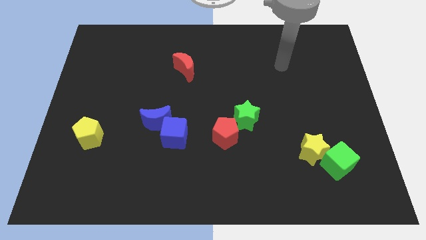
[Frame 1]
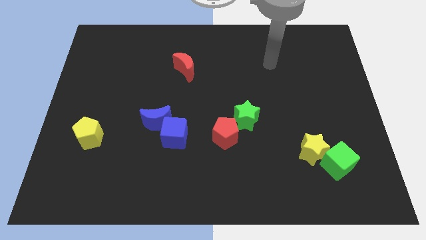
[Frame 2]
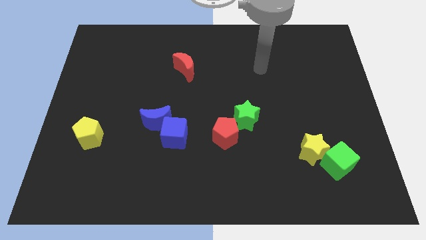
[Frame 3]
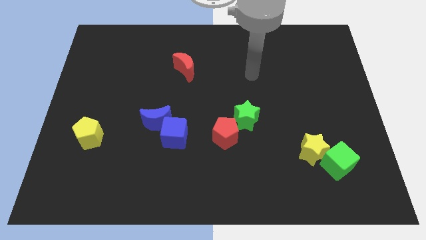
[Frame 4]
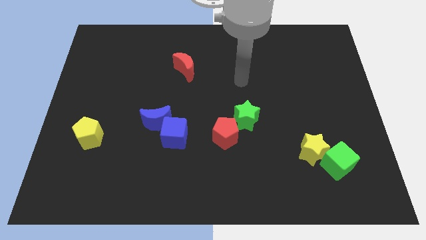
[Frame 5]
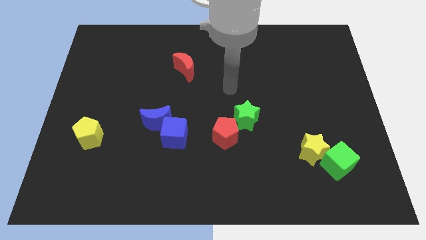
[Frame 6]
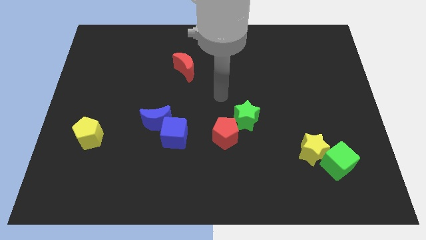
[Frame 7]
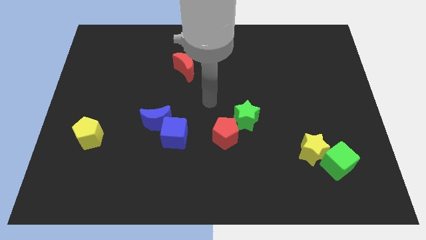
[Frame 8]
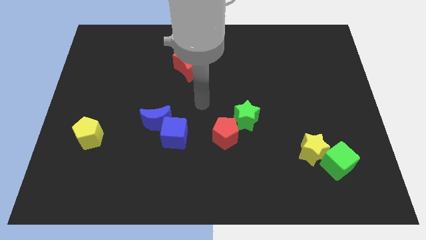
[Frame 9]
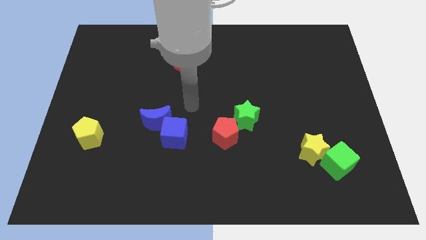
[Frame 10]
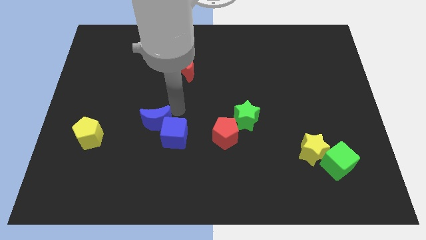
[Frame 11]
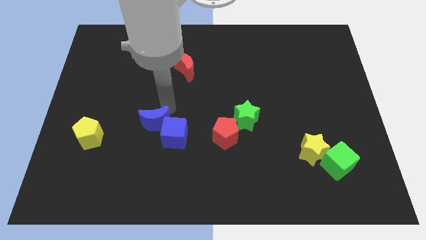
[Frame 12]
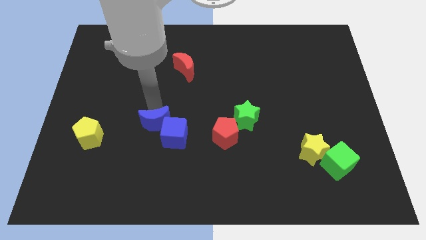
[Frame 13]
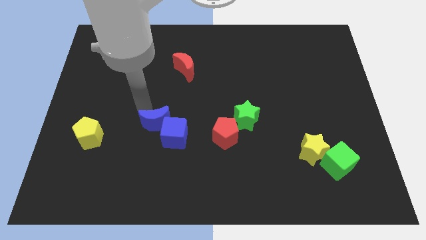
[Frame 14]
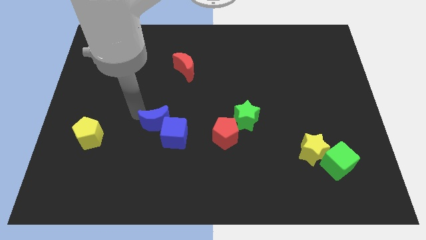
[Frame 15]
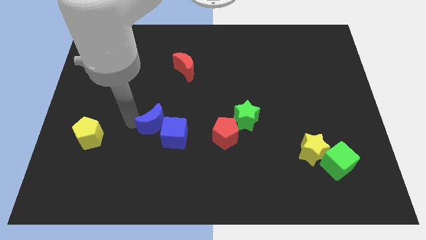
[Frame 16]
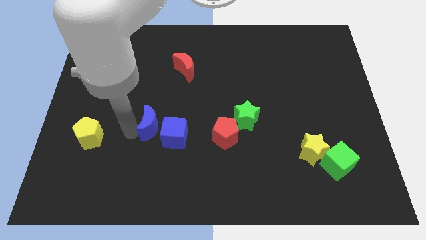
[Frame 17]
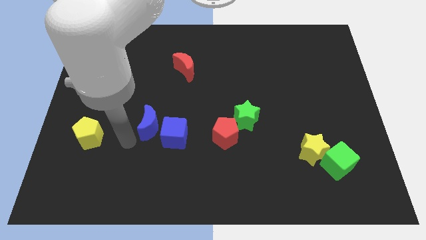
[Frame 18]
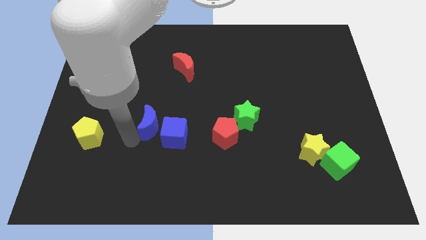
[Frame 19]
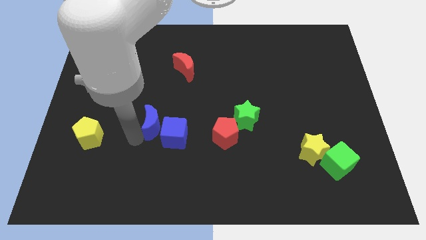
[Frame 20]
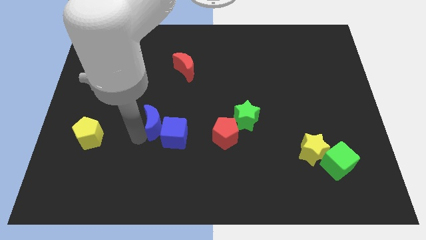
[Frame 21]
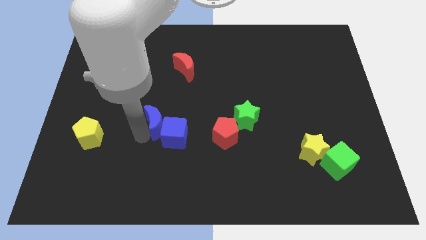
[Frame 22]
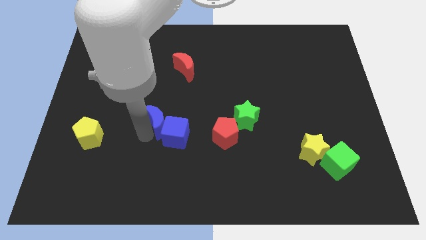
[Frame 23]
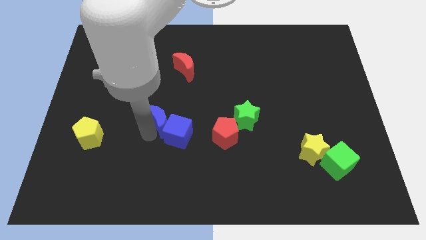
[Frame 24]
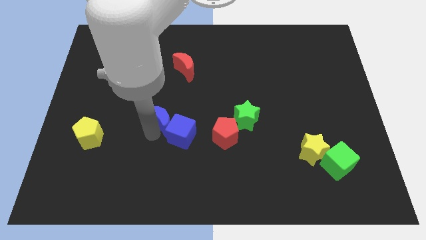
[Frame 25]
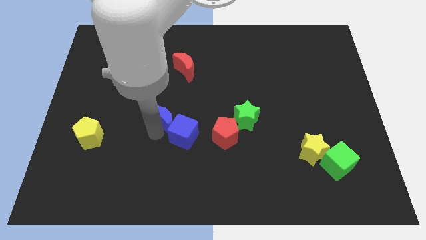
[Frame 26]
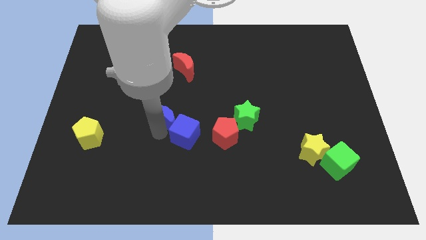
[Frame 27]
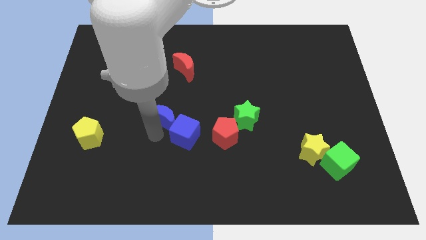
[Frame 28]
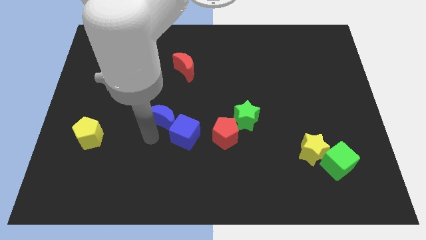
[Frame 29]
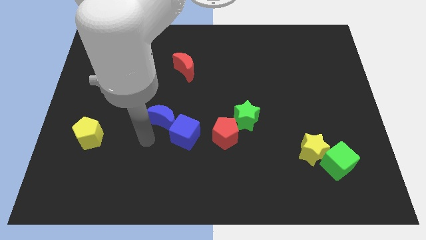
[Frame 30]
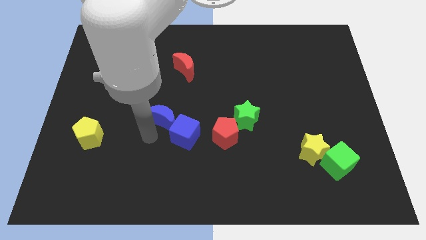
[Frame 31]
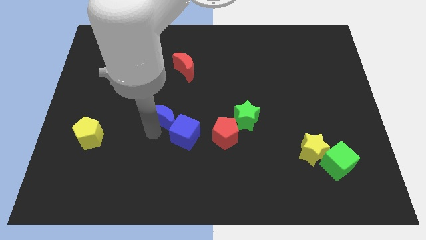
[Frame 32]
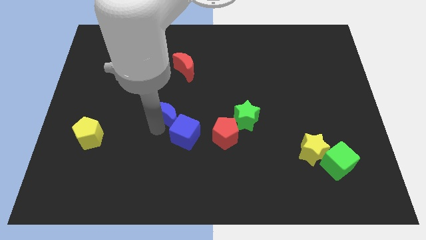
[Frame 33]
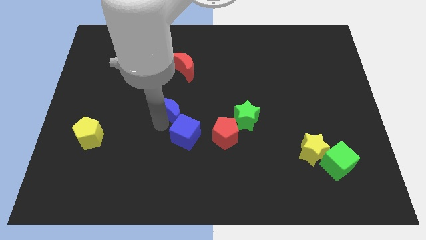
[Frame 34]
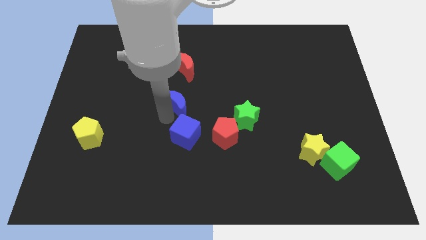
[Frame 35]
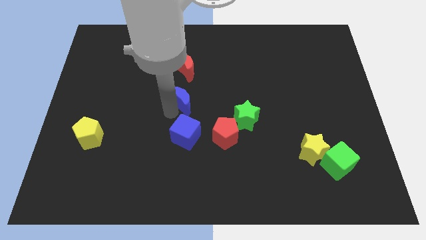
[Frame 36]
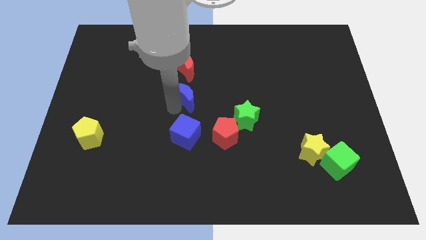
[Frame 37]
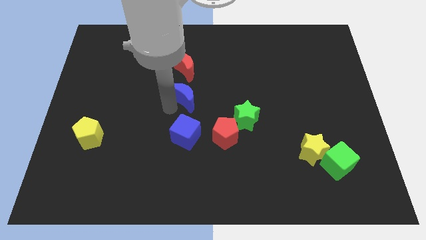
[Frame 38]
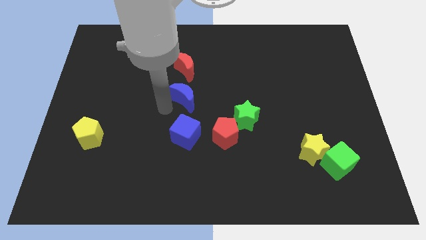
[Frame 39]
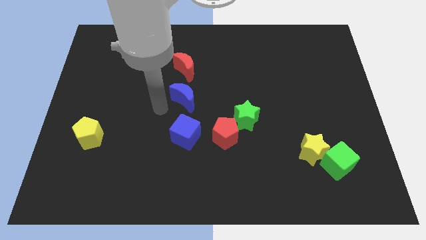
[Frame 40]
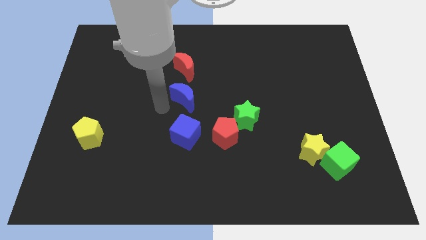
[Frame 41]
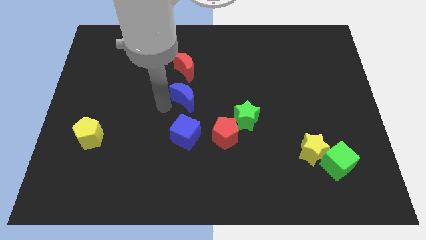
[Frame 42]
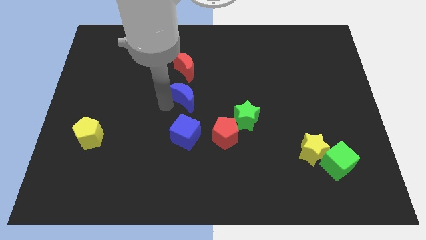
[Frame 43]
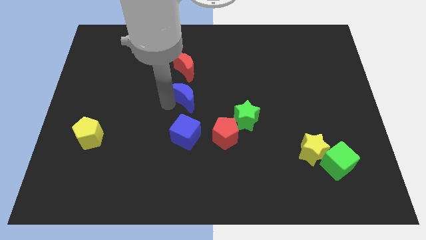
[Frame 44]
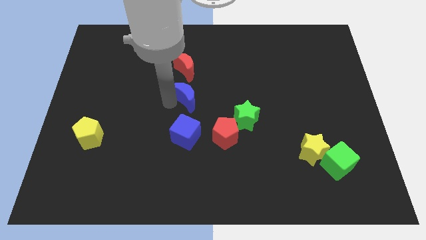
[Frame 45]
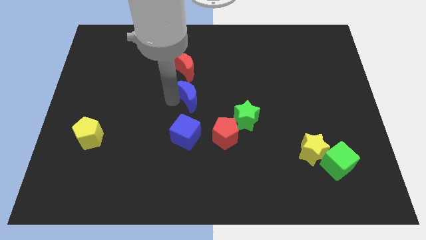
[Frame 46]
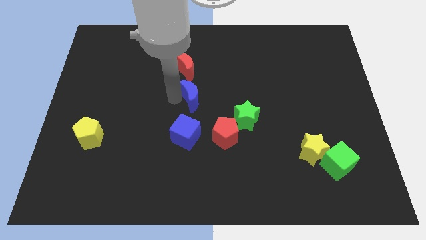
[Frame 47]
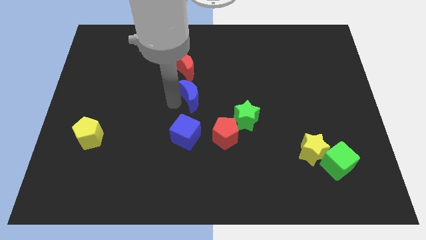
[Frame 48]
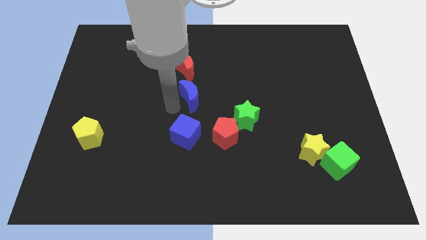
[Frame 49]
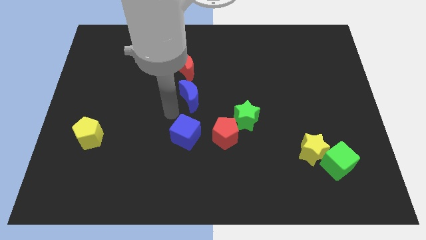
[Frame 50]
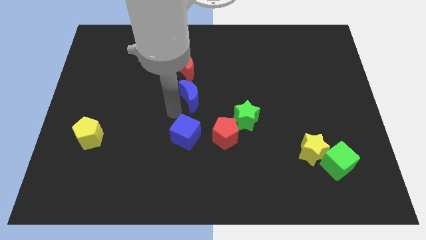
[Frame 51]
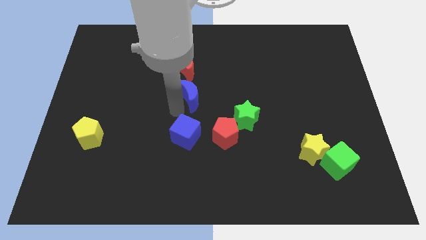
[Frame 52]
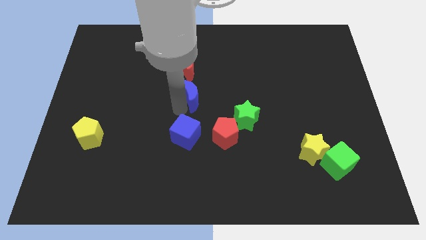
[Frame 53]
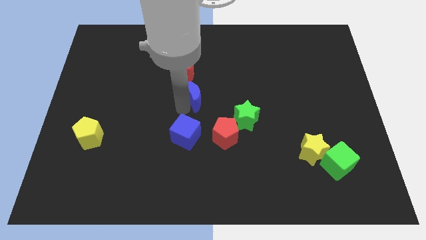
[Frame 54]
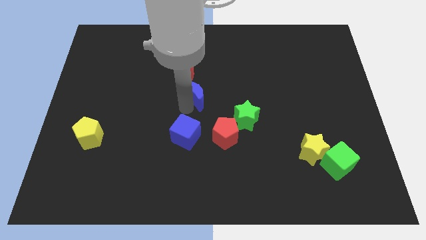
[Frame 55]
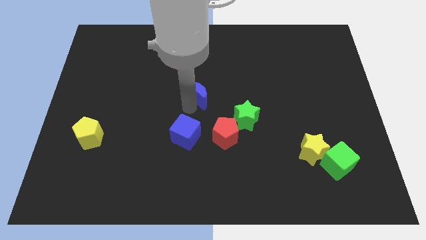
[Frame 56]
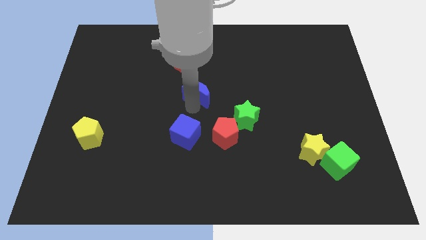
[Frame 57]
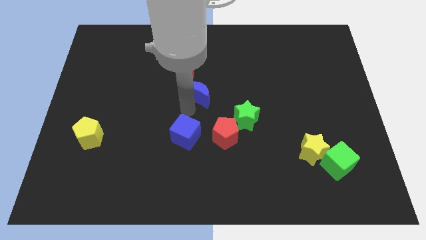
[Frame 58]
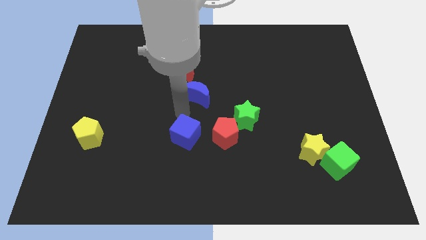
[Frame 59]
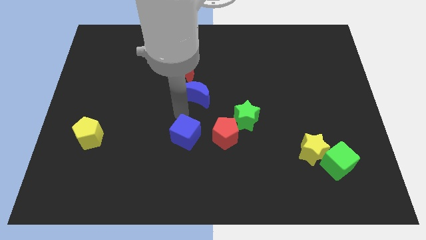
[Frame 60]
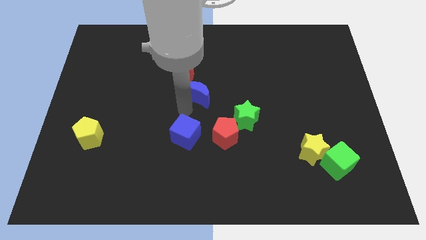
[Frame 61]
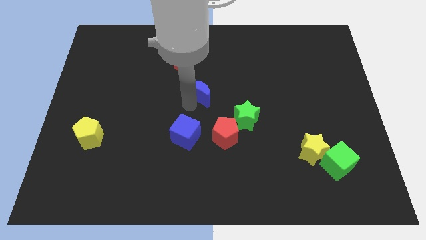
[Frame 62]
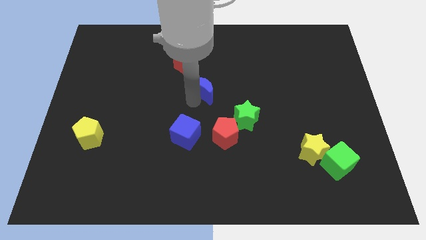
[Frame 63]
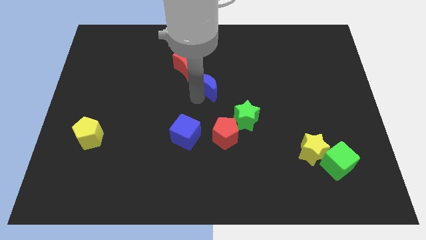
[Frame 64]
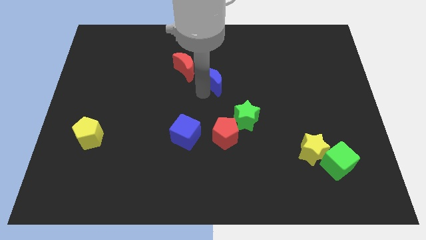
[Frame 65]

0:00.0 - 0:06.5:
move the blue moon just right of the red moon

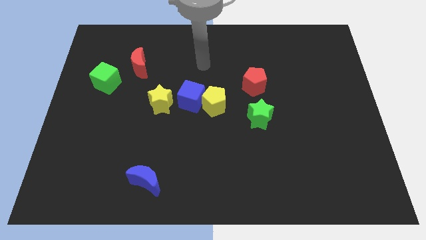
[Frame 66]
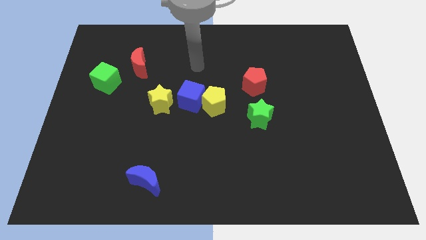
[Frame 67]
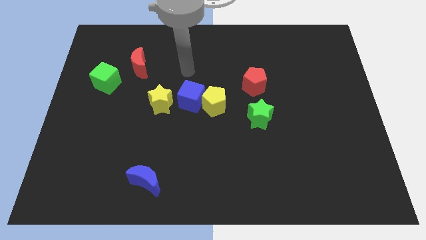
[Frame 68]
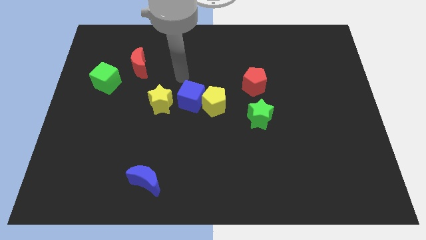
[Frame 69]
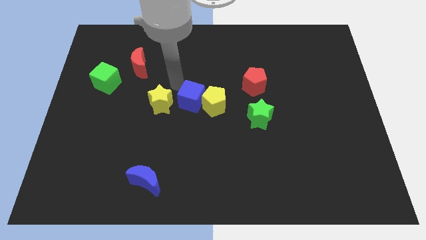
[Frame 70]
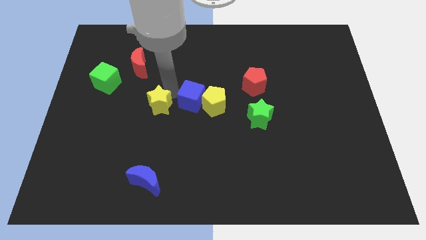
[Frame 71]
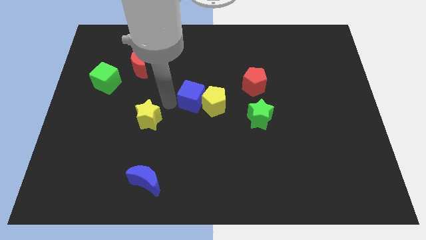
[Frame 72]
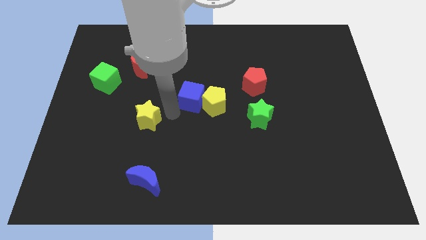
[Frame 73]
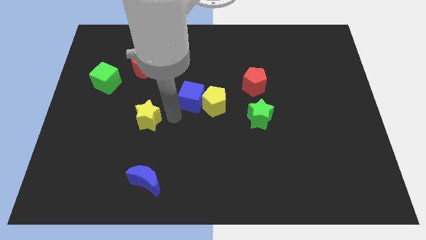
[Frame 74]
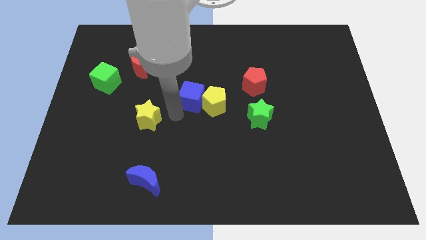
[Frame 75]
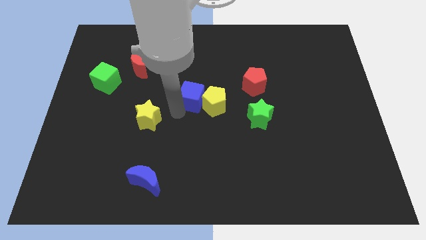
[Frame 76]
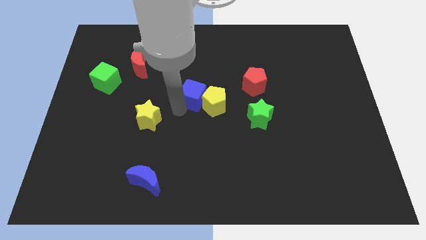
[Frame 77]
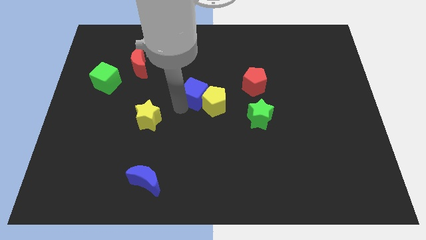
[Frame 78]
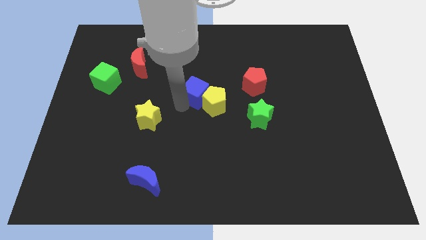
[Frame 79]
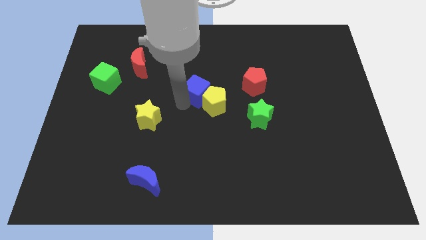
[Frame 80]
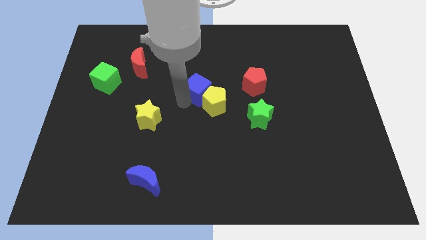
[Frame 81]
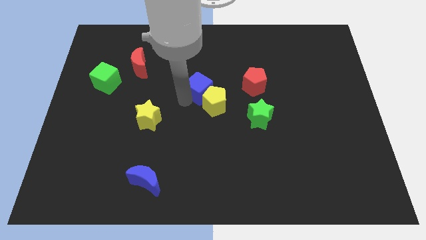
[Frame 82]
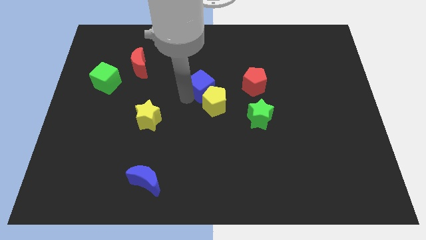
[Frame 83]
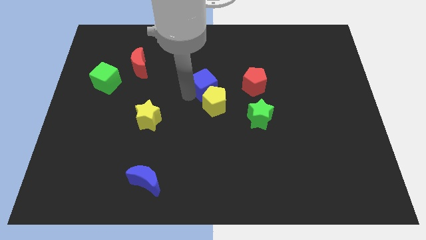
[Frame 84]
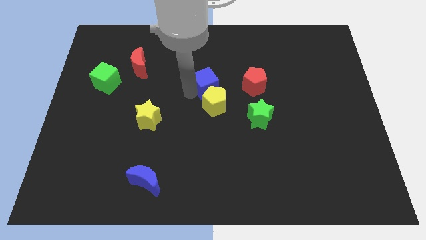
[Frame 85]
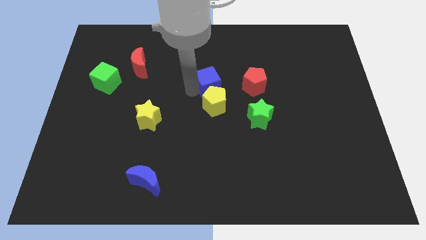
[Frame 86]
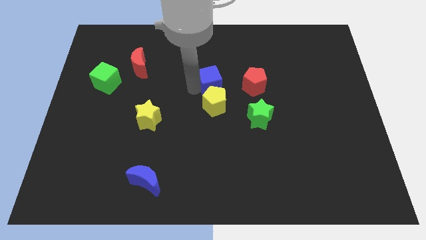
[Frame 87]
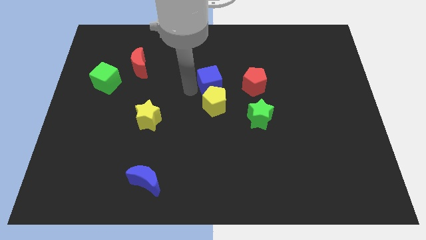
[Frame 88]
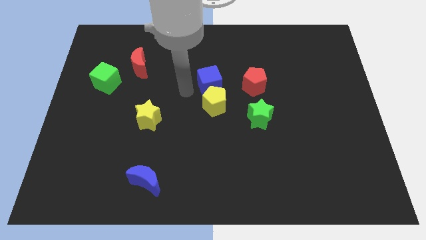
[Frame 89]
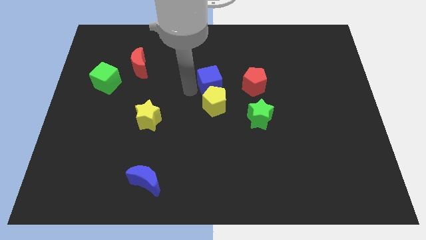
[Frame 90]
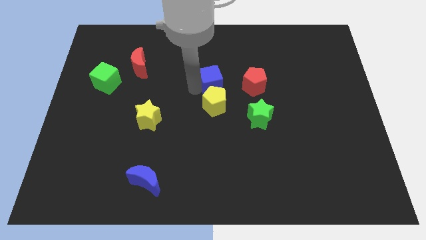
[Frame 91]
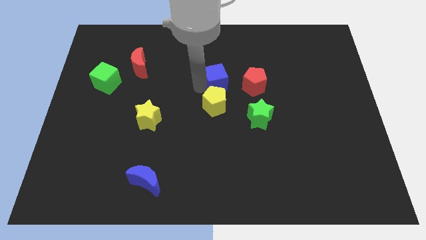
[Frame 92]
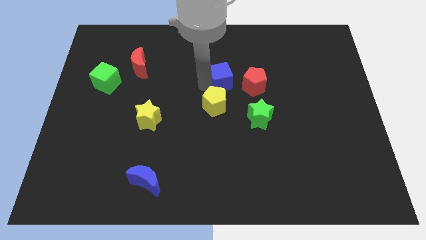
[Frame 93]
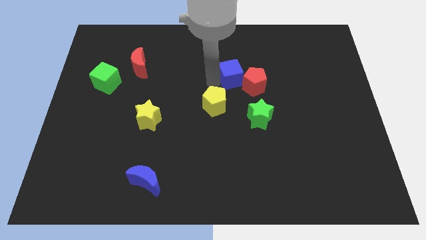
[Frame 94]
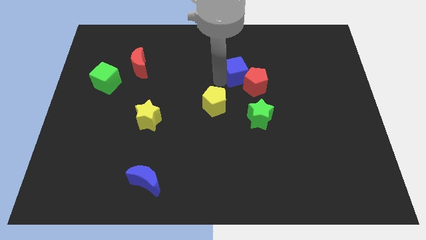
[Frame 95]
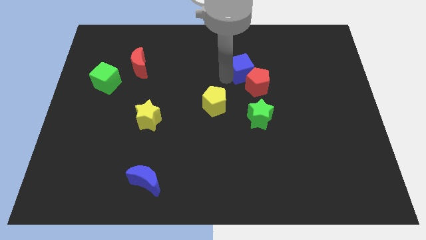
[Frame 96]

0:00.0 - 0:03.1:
slide the blue cube to the top of the green star
